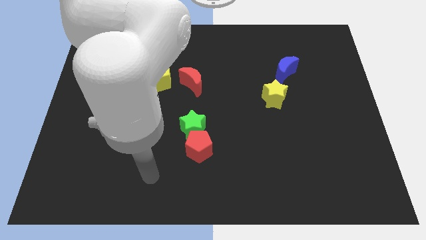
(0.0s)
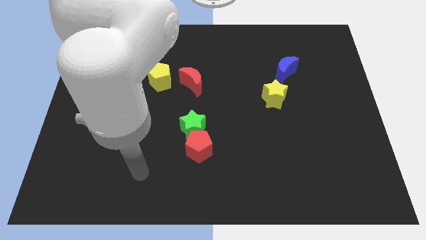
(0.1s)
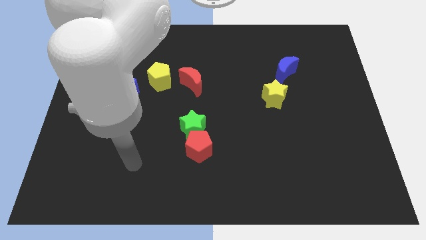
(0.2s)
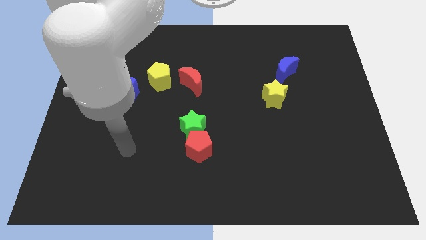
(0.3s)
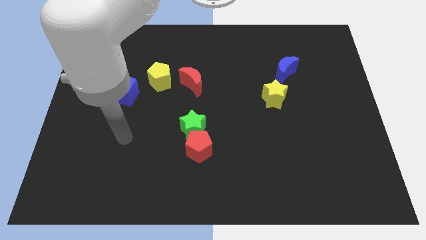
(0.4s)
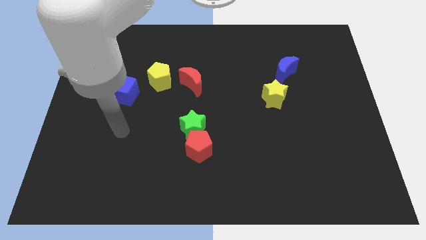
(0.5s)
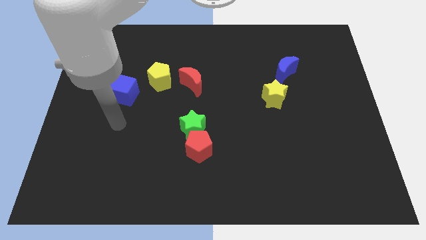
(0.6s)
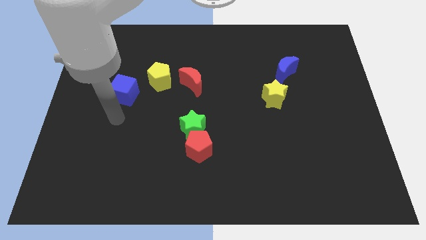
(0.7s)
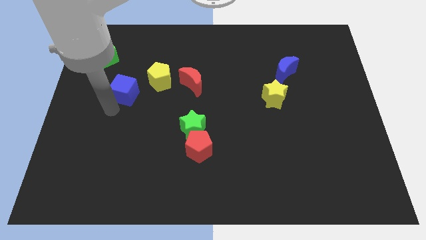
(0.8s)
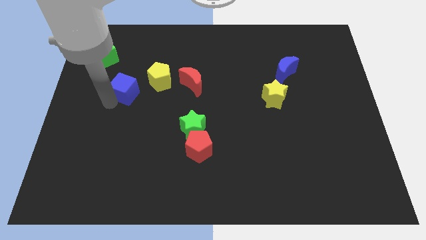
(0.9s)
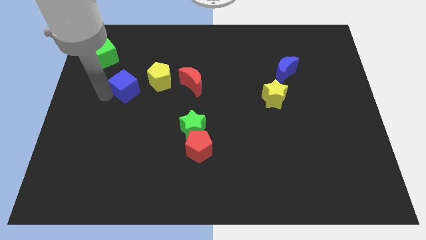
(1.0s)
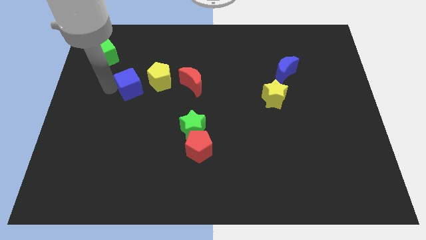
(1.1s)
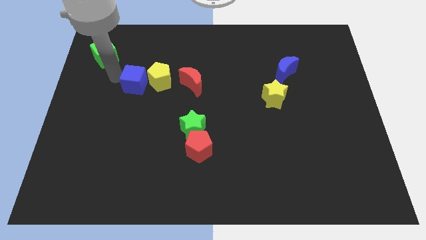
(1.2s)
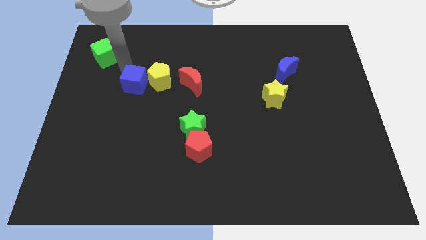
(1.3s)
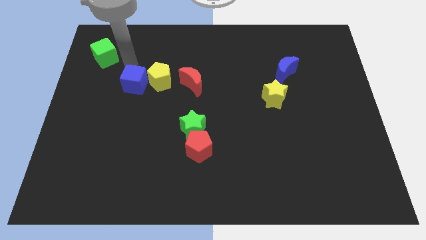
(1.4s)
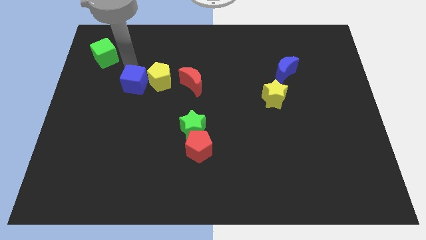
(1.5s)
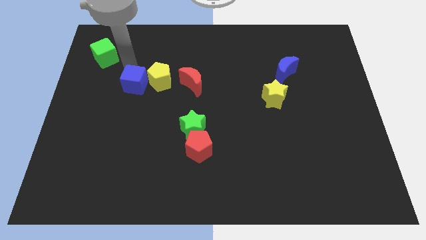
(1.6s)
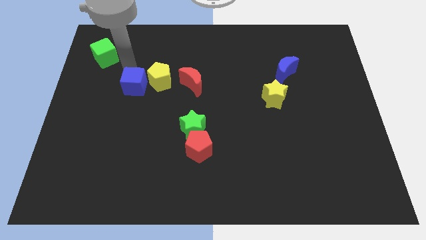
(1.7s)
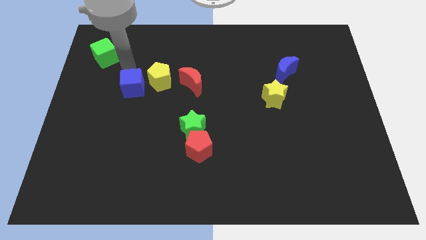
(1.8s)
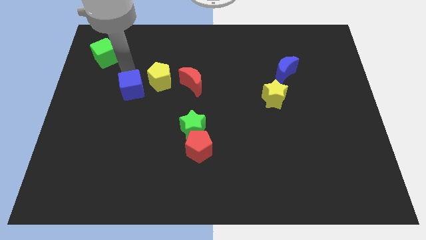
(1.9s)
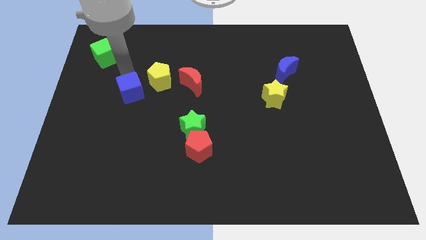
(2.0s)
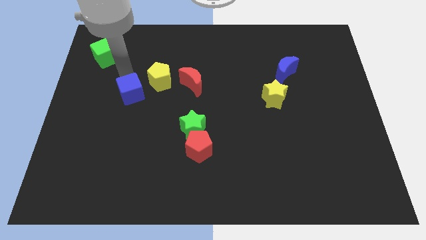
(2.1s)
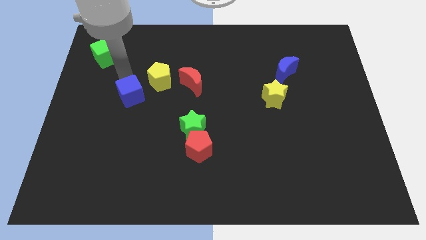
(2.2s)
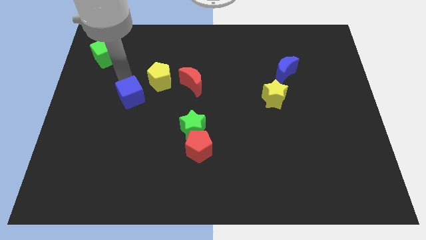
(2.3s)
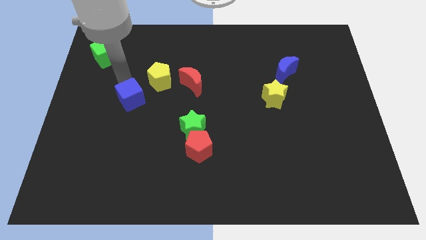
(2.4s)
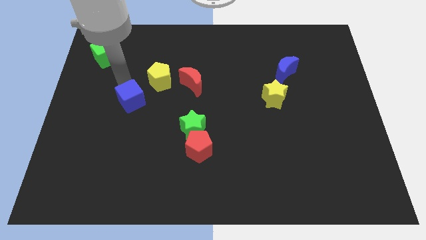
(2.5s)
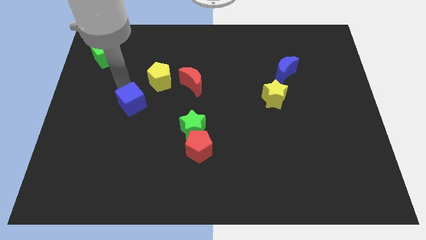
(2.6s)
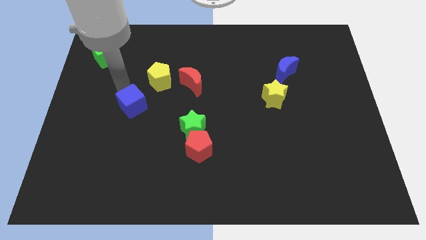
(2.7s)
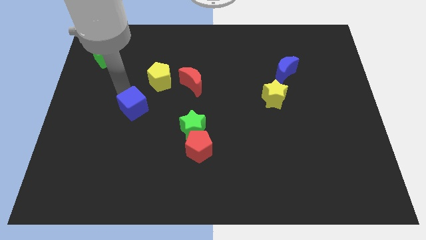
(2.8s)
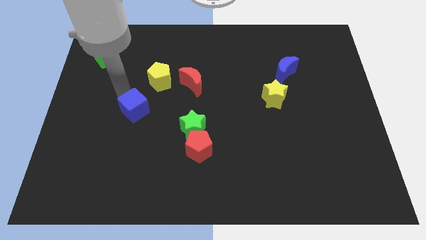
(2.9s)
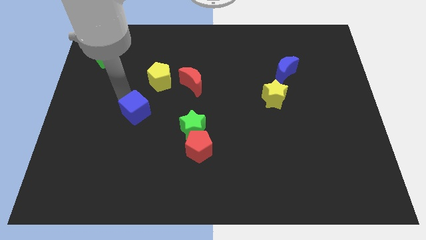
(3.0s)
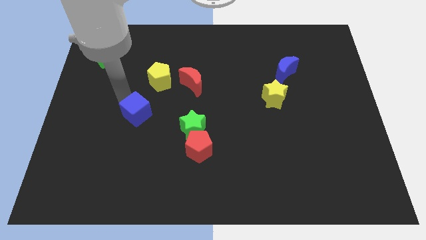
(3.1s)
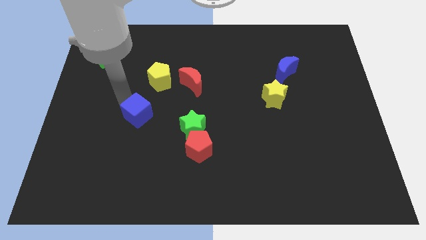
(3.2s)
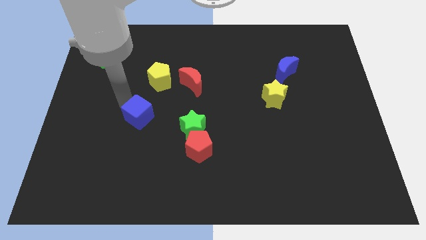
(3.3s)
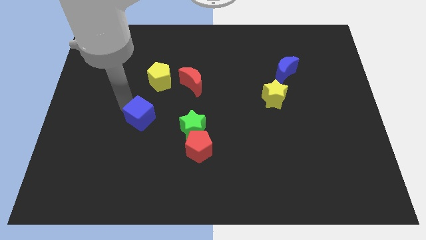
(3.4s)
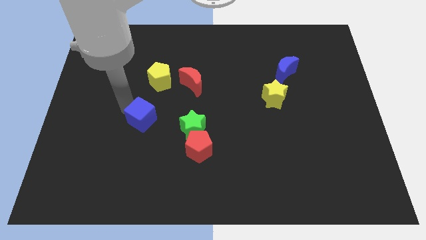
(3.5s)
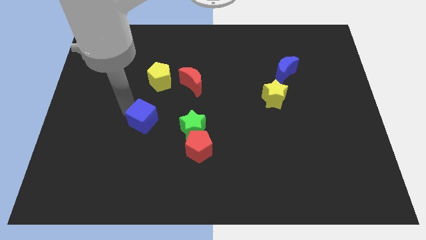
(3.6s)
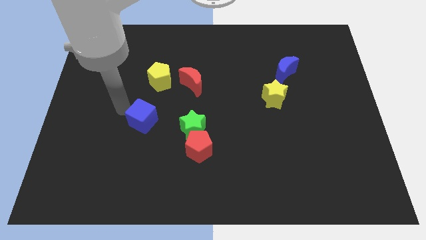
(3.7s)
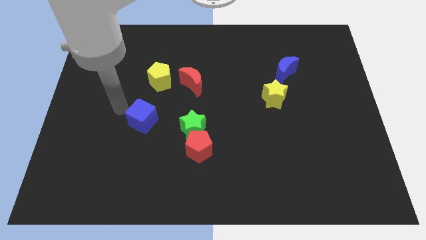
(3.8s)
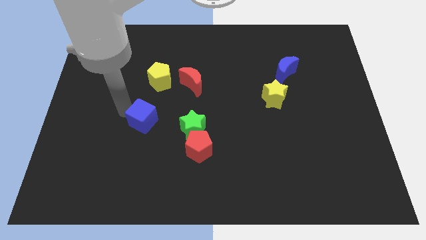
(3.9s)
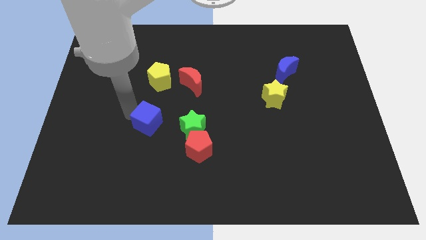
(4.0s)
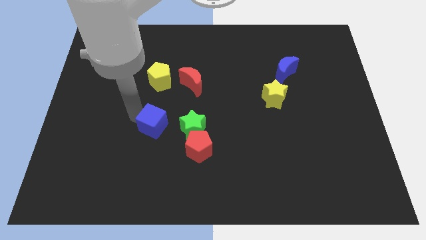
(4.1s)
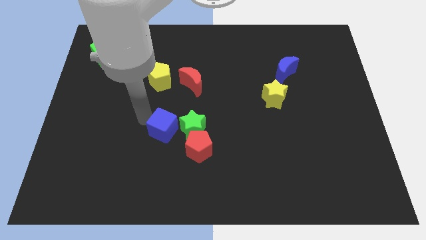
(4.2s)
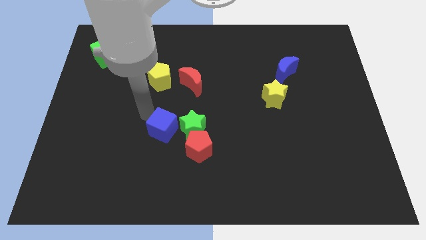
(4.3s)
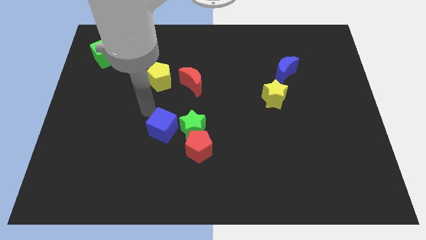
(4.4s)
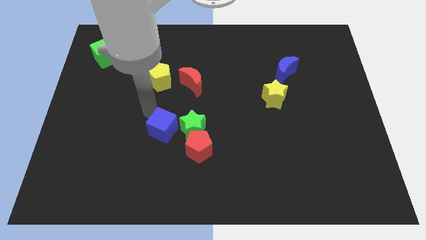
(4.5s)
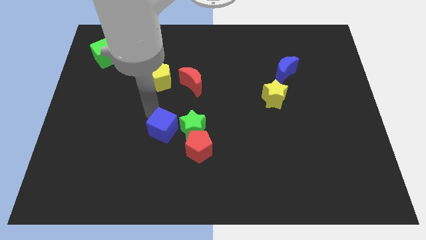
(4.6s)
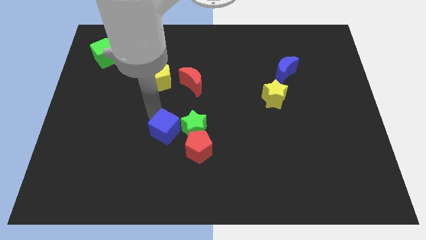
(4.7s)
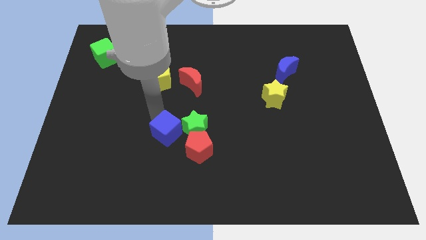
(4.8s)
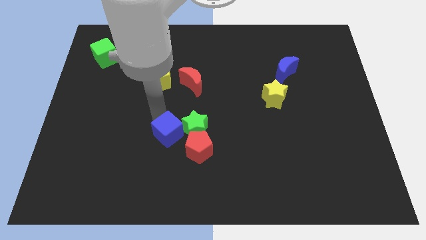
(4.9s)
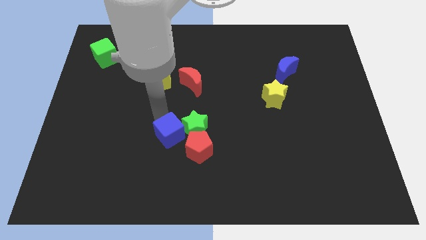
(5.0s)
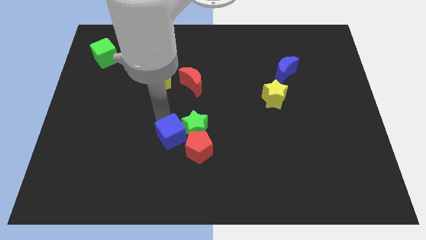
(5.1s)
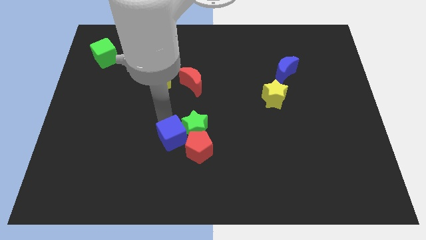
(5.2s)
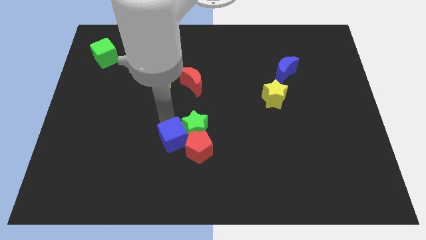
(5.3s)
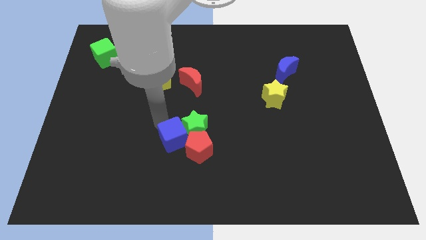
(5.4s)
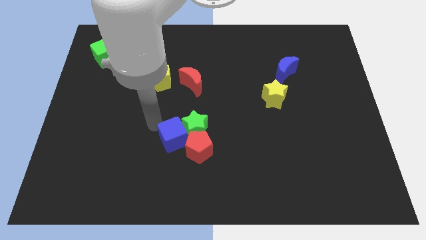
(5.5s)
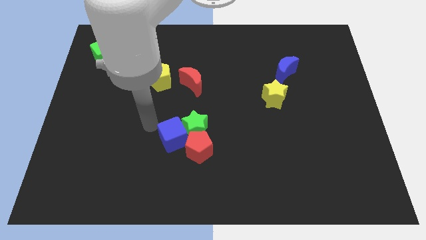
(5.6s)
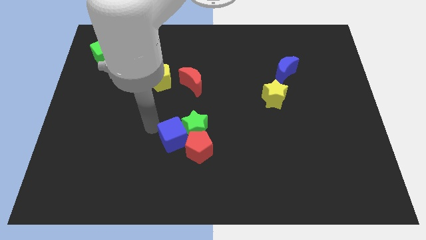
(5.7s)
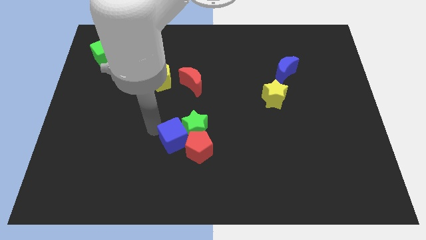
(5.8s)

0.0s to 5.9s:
move the blue cube next to the red pentagon

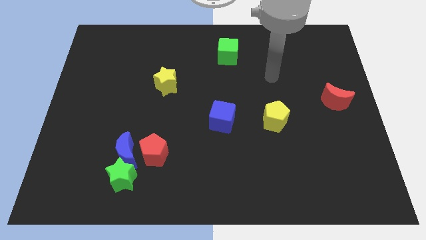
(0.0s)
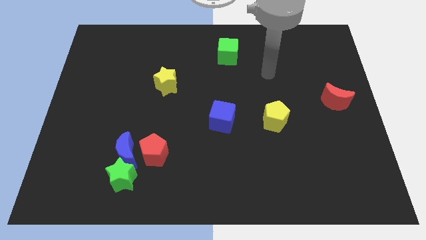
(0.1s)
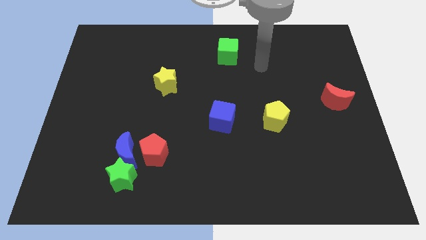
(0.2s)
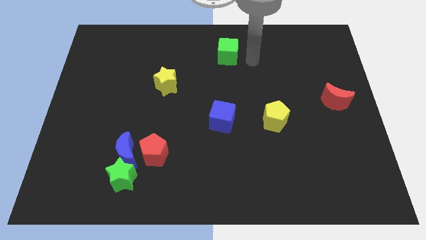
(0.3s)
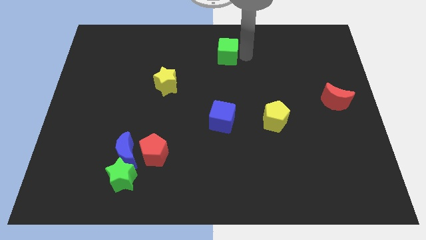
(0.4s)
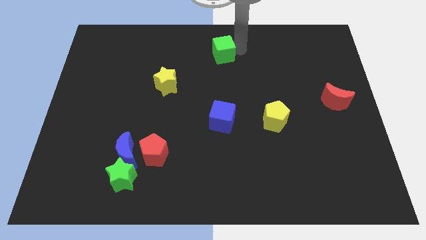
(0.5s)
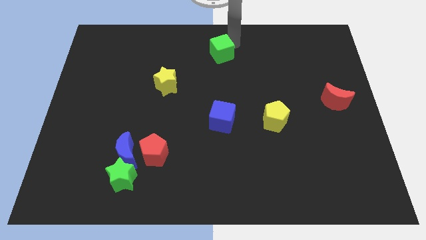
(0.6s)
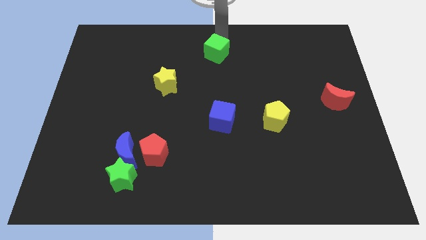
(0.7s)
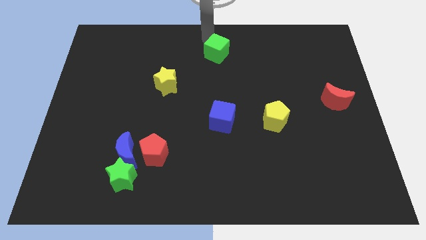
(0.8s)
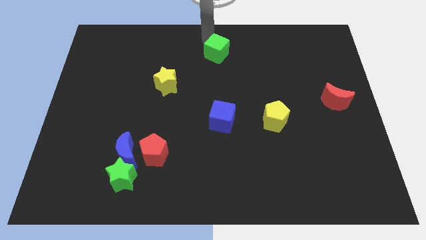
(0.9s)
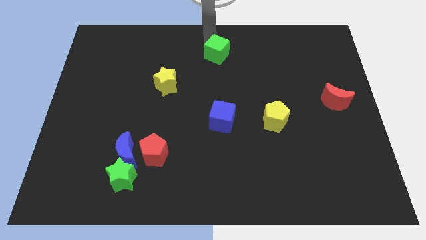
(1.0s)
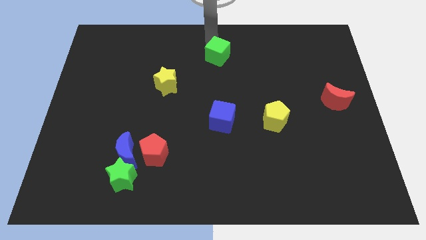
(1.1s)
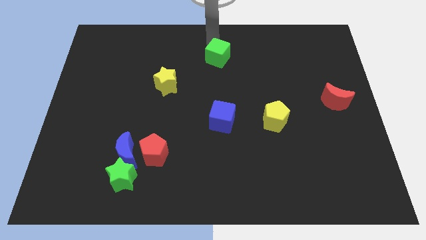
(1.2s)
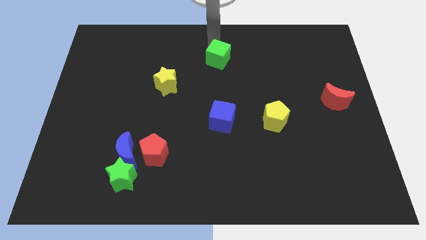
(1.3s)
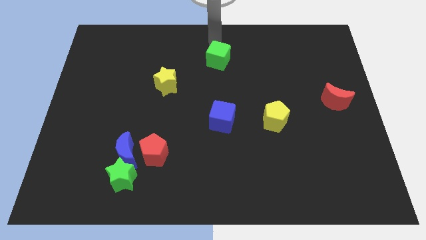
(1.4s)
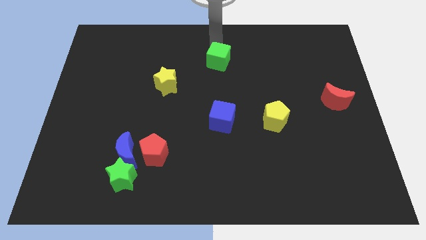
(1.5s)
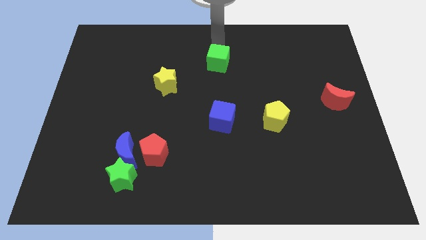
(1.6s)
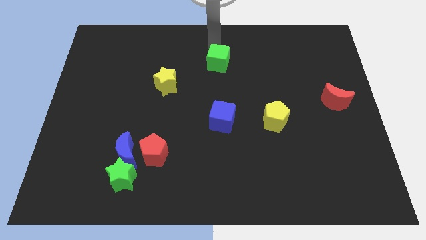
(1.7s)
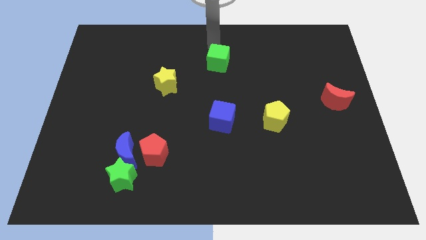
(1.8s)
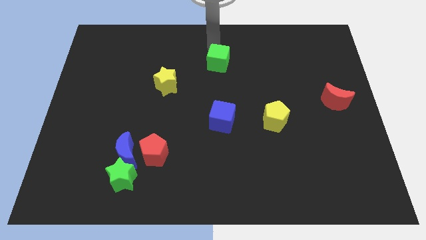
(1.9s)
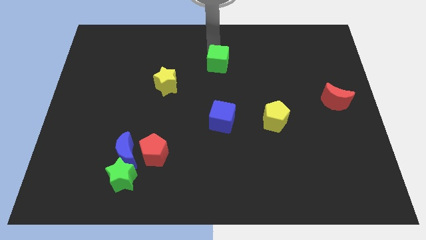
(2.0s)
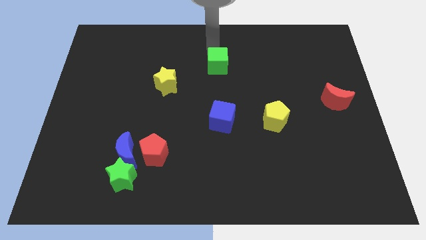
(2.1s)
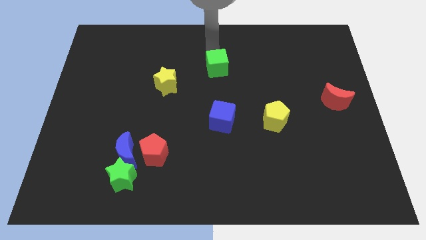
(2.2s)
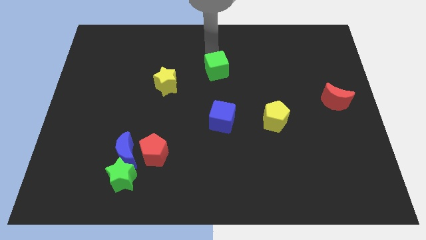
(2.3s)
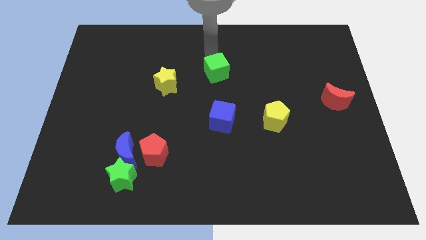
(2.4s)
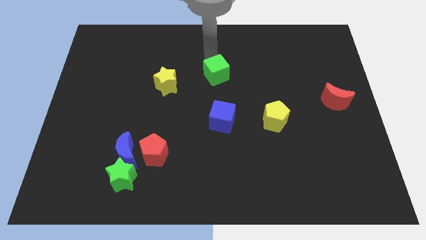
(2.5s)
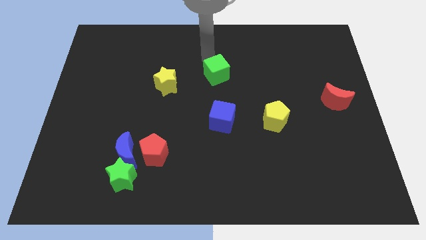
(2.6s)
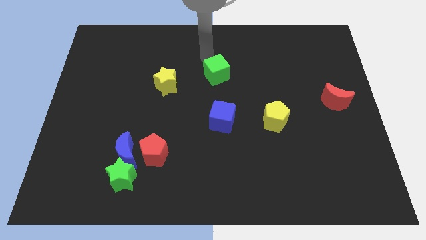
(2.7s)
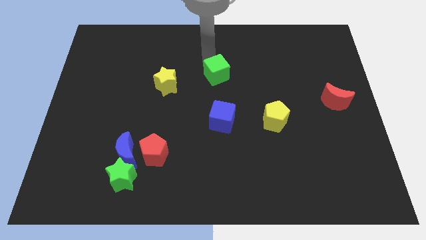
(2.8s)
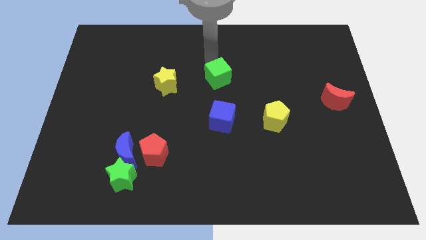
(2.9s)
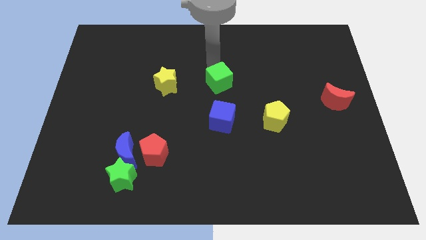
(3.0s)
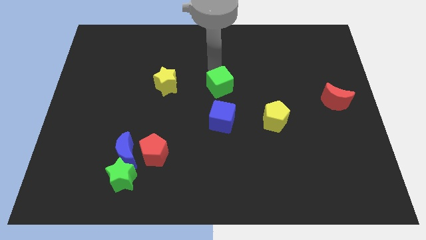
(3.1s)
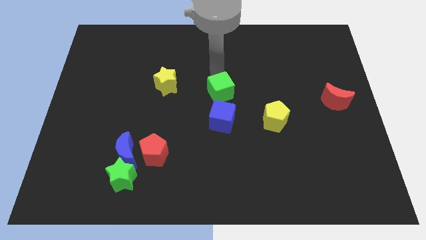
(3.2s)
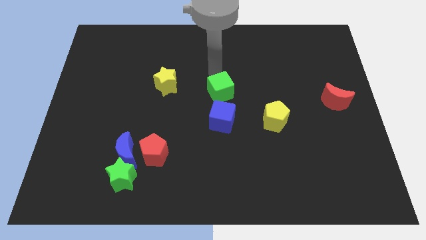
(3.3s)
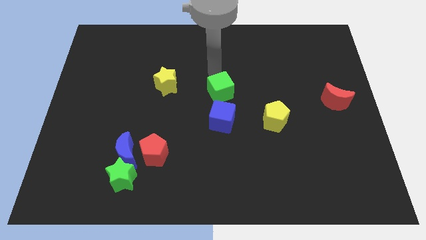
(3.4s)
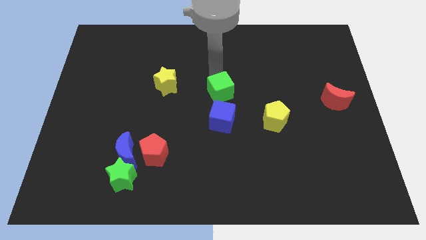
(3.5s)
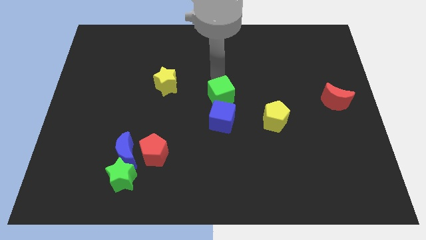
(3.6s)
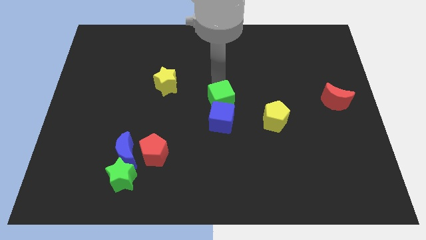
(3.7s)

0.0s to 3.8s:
put the green cube to the blue cube
